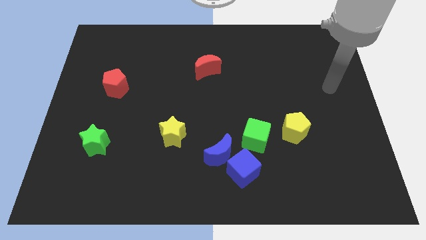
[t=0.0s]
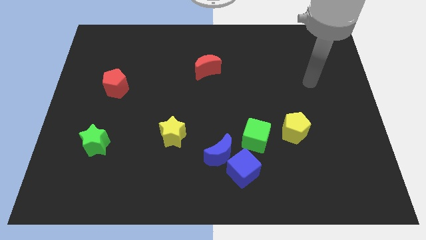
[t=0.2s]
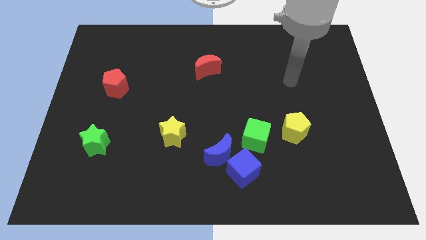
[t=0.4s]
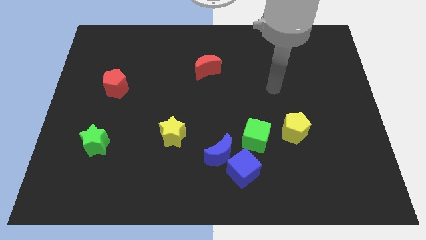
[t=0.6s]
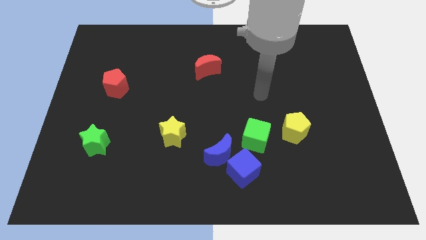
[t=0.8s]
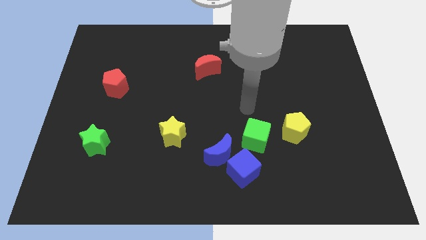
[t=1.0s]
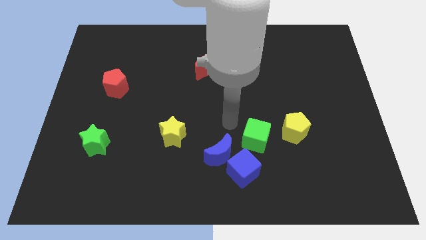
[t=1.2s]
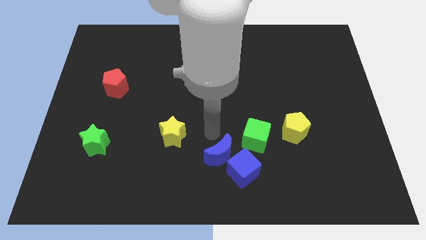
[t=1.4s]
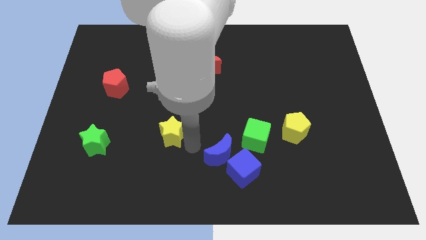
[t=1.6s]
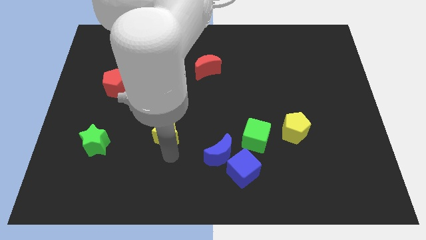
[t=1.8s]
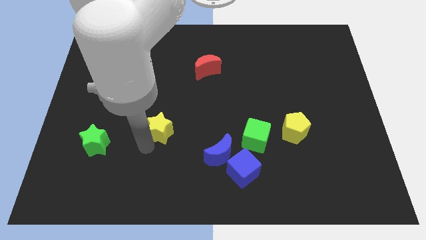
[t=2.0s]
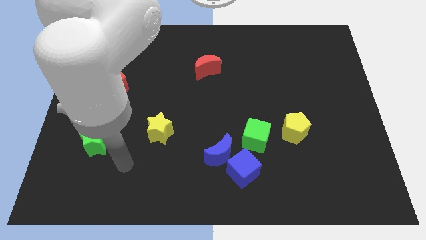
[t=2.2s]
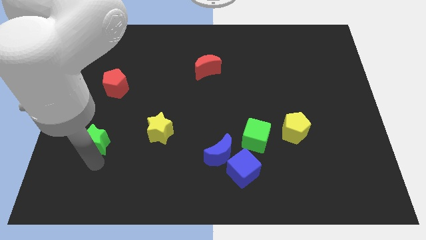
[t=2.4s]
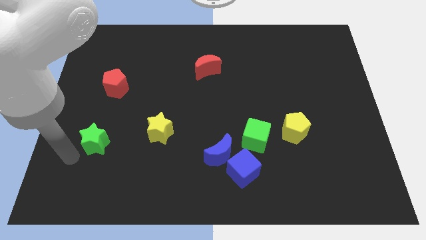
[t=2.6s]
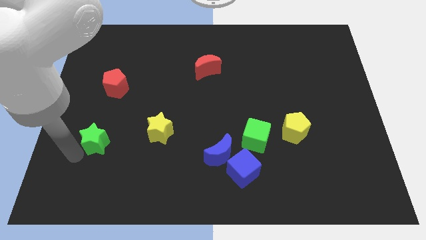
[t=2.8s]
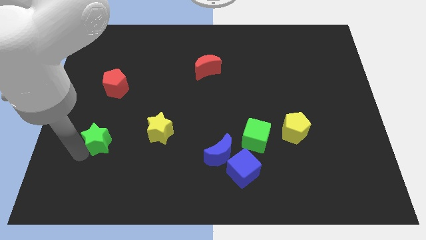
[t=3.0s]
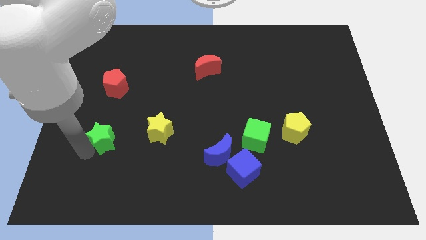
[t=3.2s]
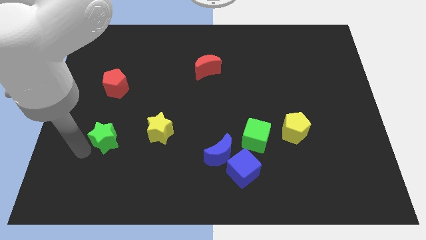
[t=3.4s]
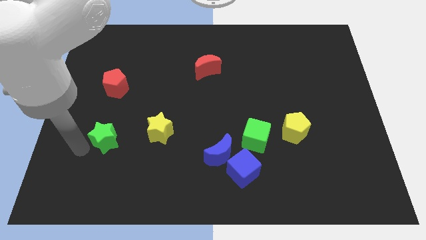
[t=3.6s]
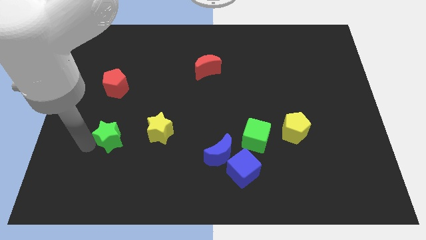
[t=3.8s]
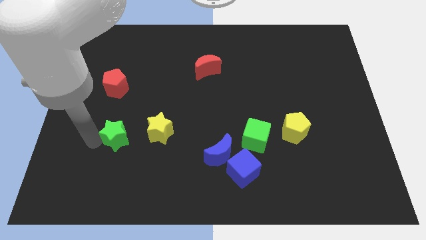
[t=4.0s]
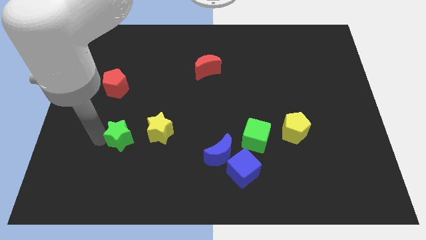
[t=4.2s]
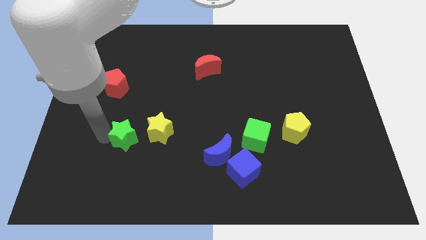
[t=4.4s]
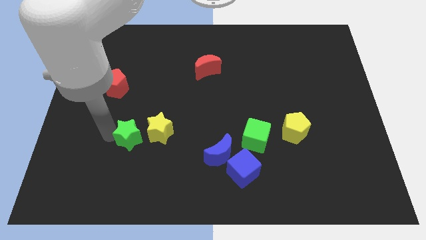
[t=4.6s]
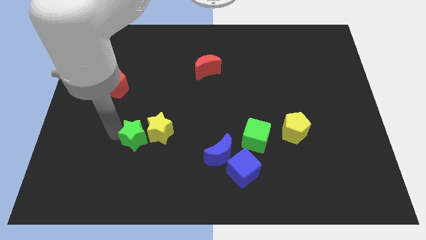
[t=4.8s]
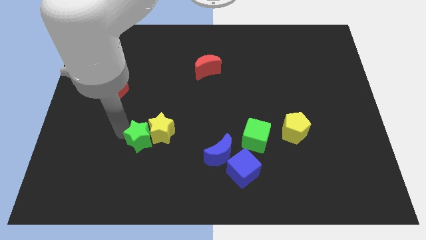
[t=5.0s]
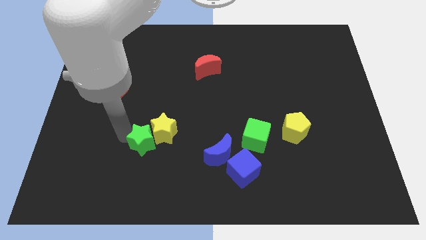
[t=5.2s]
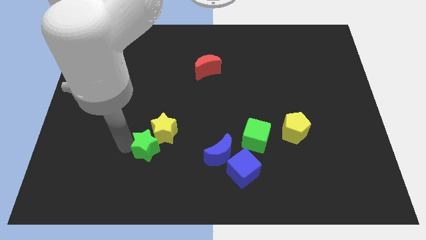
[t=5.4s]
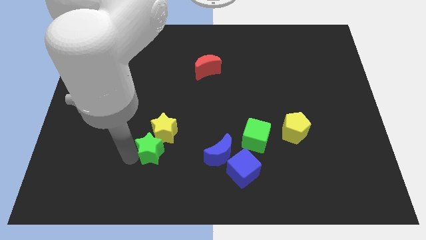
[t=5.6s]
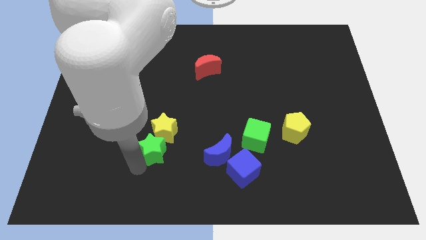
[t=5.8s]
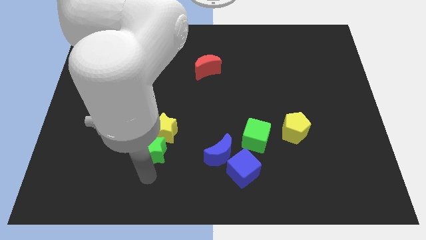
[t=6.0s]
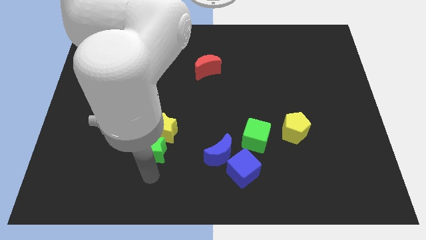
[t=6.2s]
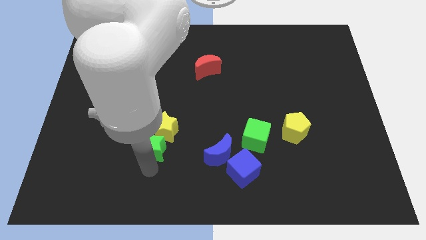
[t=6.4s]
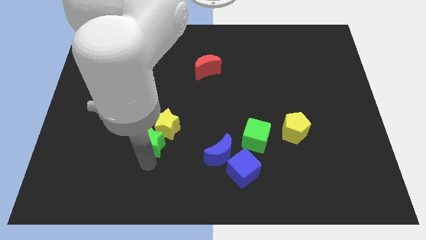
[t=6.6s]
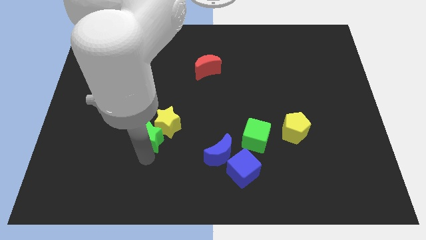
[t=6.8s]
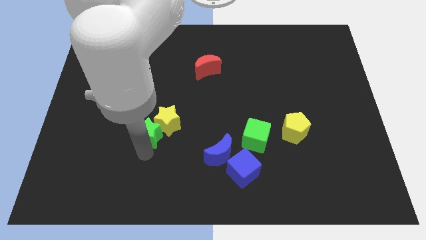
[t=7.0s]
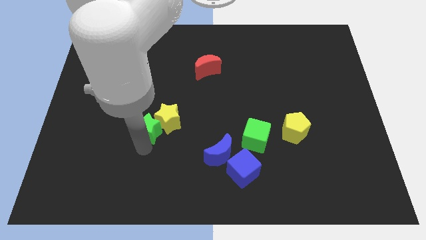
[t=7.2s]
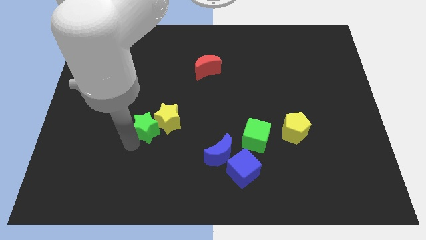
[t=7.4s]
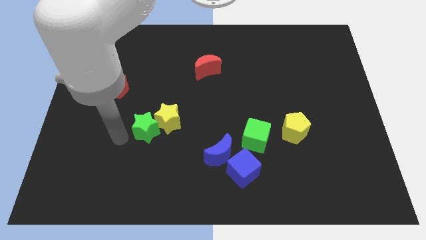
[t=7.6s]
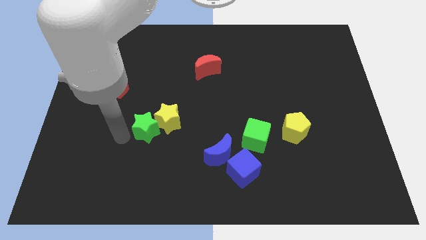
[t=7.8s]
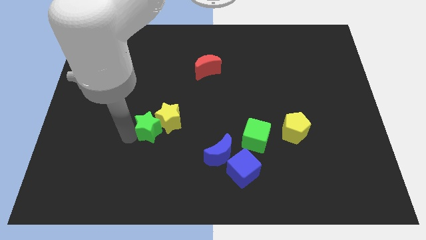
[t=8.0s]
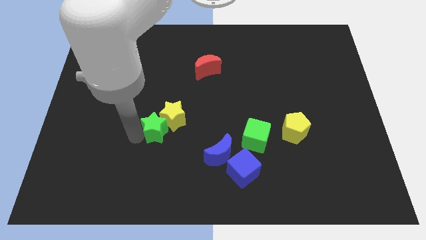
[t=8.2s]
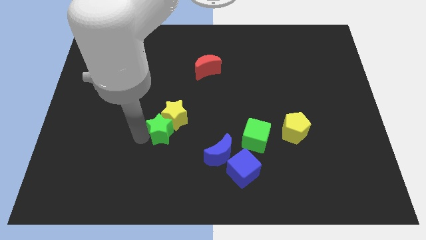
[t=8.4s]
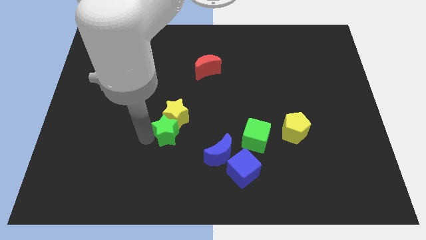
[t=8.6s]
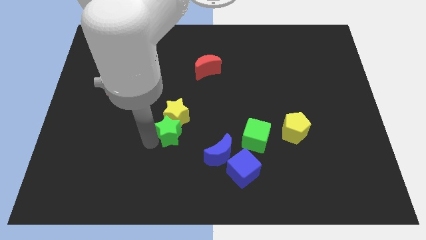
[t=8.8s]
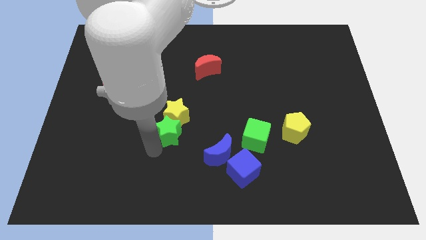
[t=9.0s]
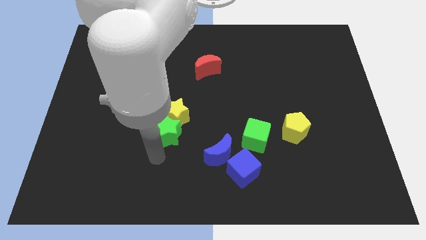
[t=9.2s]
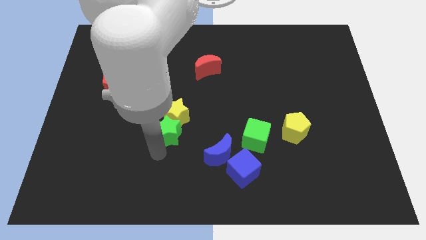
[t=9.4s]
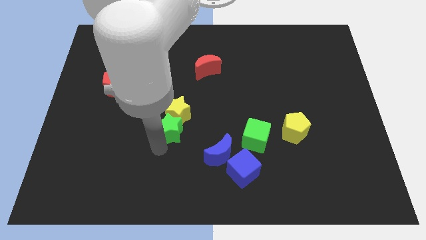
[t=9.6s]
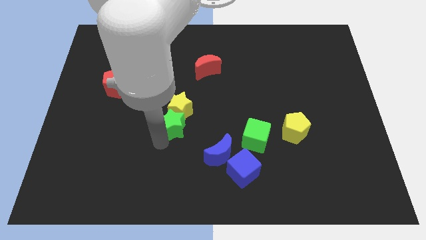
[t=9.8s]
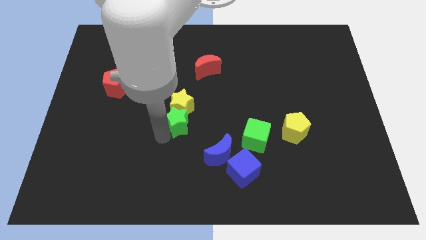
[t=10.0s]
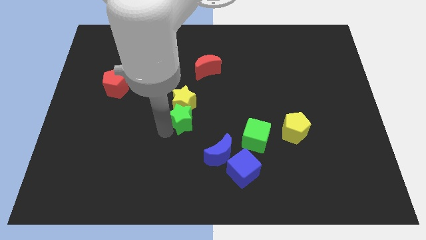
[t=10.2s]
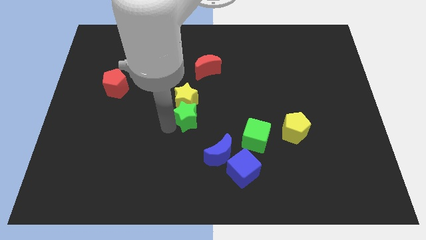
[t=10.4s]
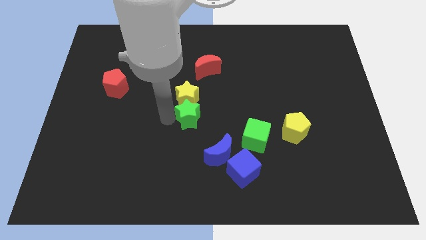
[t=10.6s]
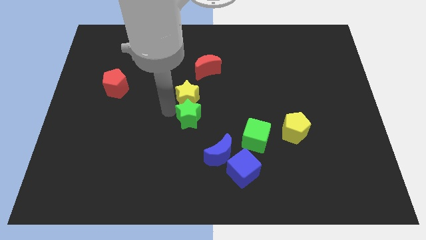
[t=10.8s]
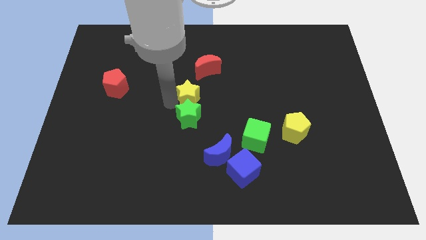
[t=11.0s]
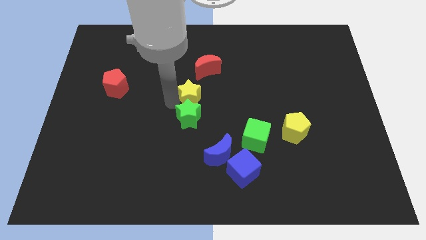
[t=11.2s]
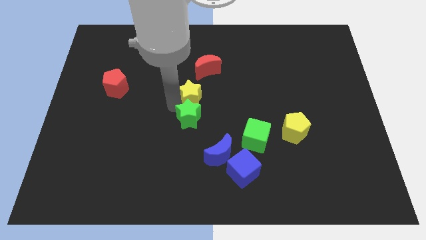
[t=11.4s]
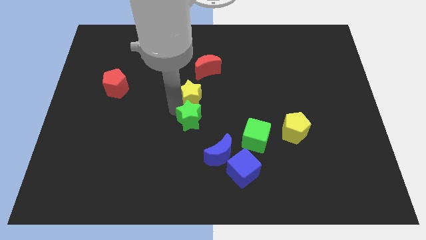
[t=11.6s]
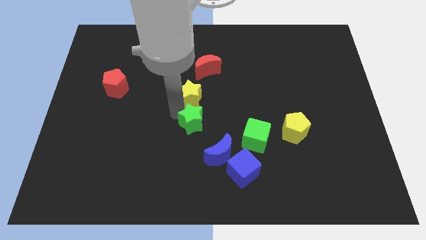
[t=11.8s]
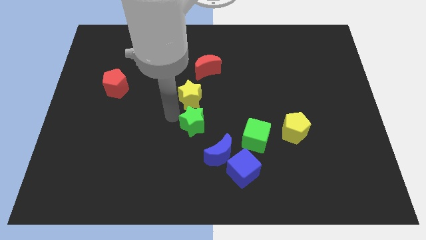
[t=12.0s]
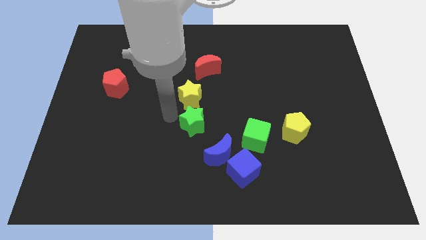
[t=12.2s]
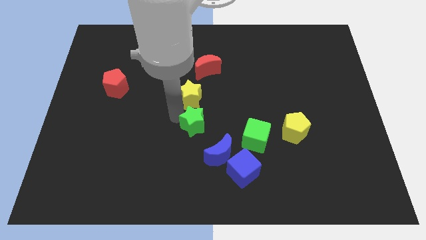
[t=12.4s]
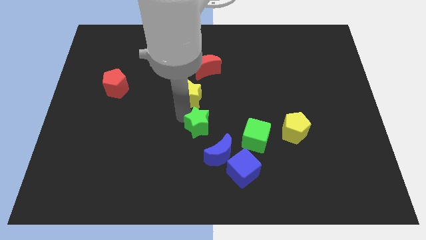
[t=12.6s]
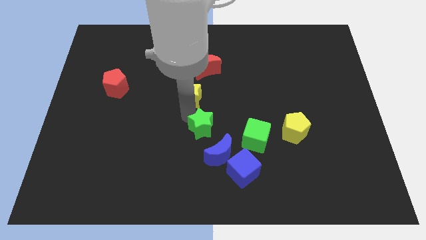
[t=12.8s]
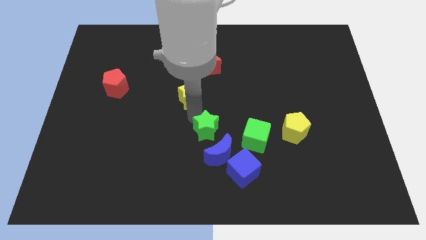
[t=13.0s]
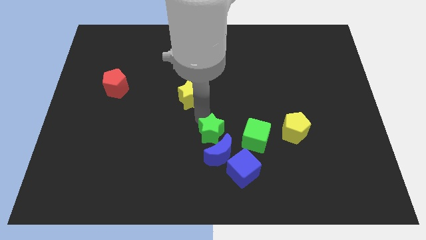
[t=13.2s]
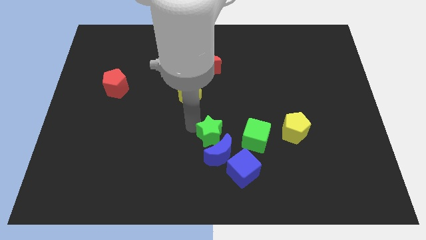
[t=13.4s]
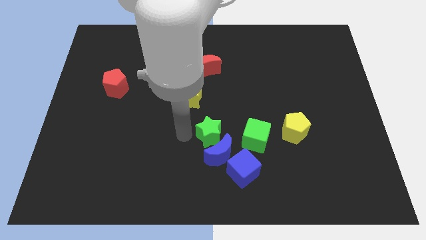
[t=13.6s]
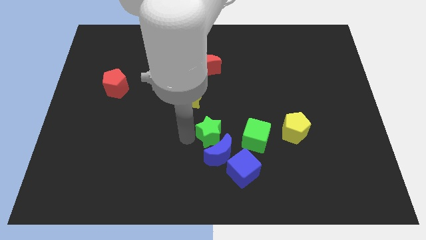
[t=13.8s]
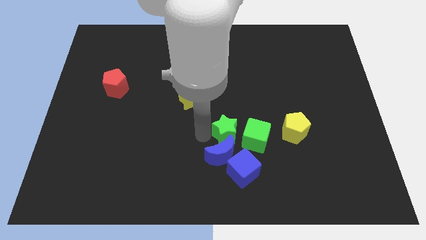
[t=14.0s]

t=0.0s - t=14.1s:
push the green star to the top side of the blue cube
